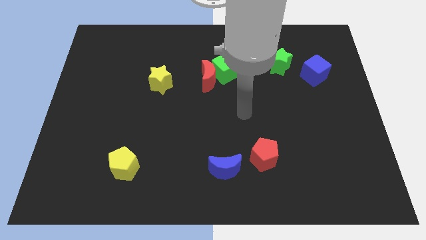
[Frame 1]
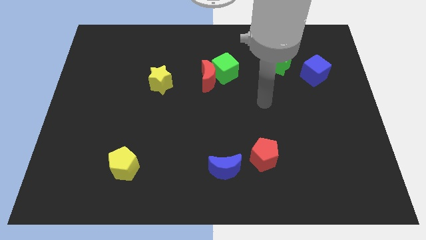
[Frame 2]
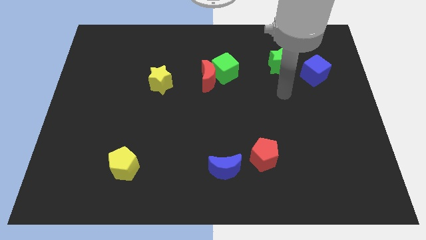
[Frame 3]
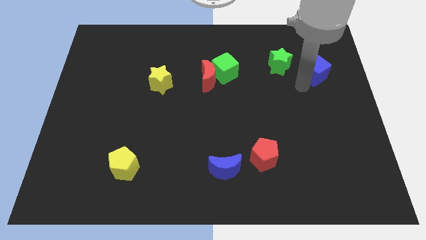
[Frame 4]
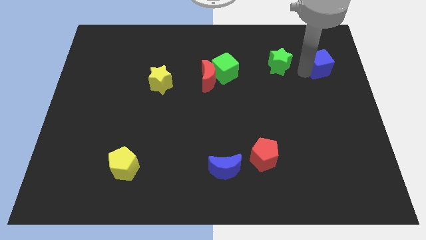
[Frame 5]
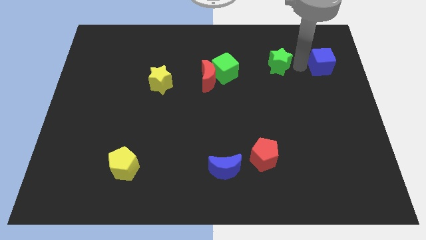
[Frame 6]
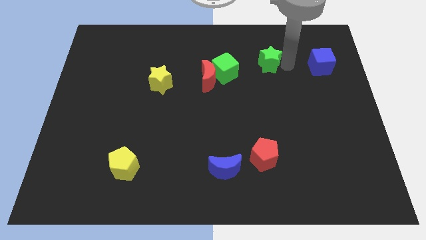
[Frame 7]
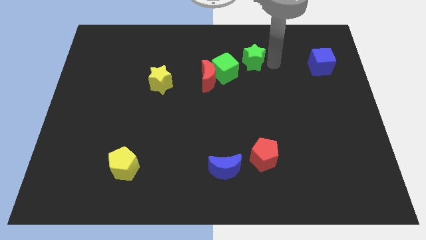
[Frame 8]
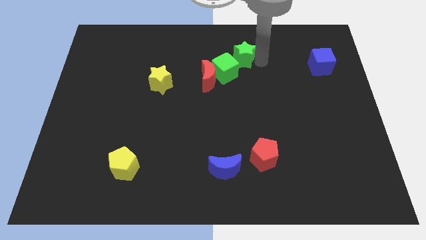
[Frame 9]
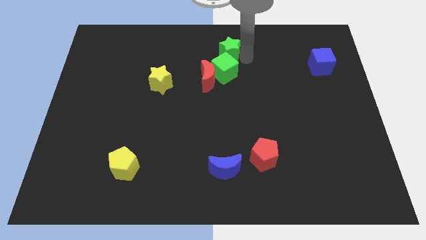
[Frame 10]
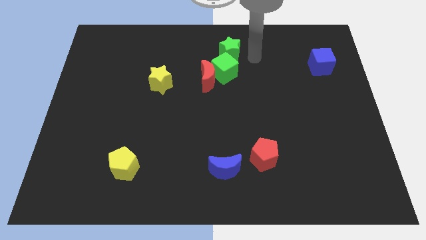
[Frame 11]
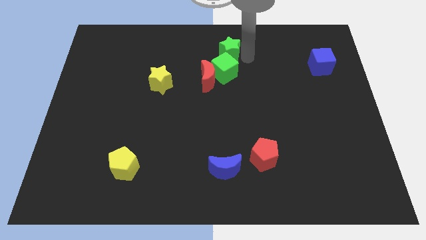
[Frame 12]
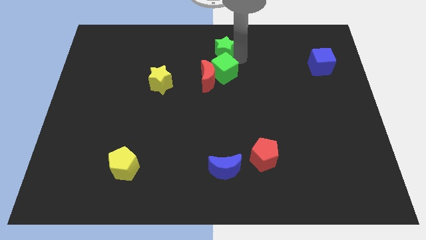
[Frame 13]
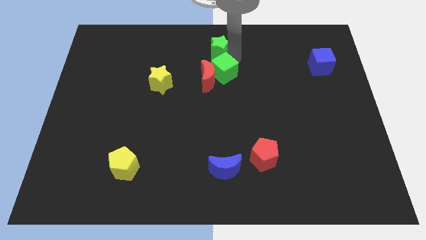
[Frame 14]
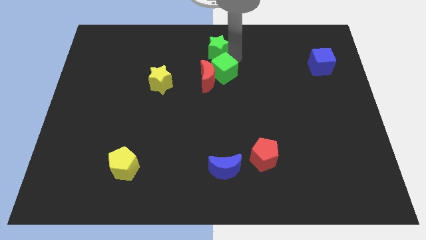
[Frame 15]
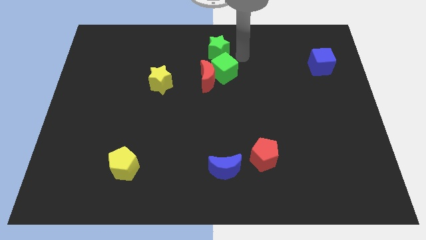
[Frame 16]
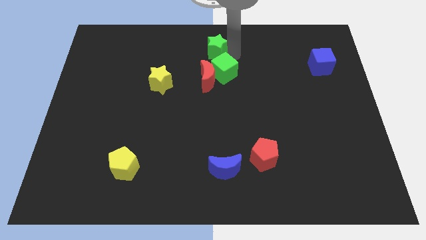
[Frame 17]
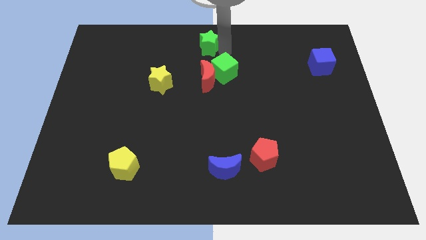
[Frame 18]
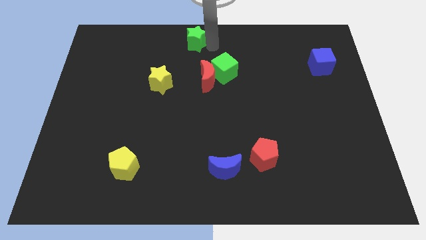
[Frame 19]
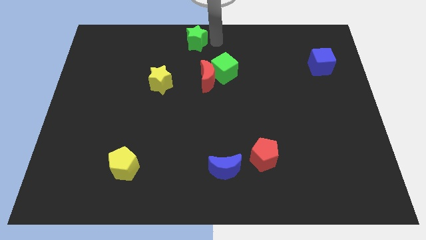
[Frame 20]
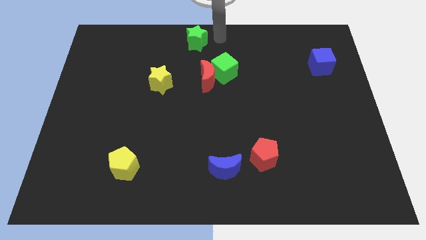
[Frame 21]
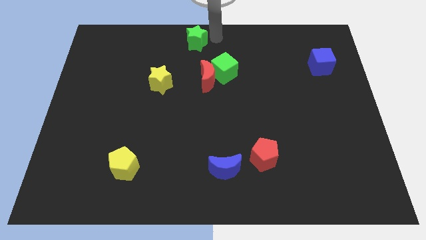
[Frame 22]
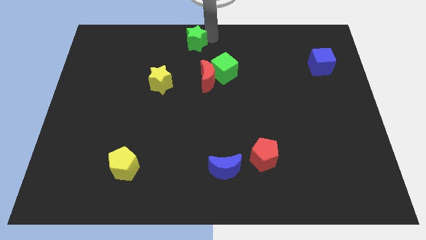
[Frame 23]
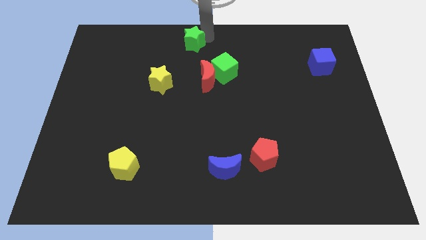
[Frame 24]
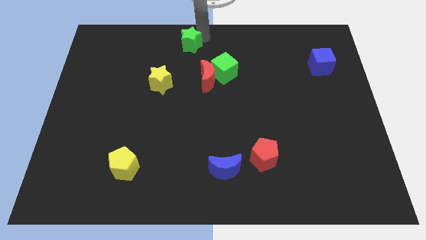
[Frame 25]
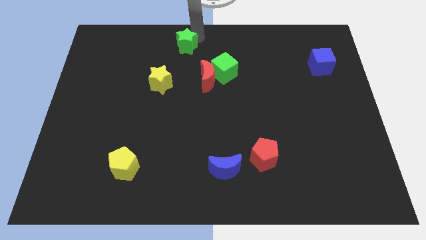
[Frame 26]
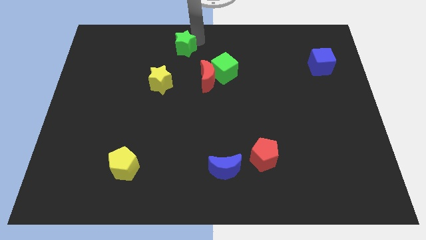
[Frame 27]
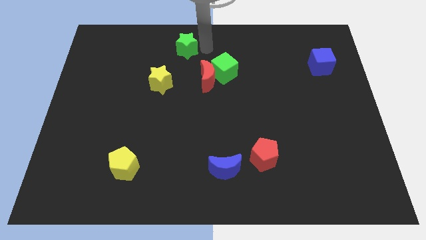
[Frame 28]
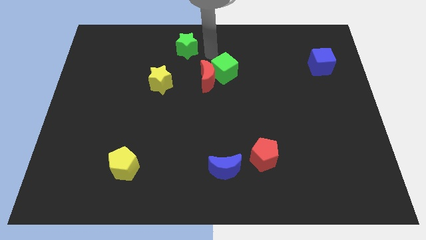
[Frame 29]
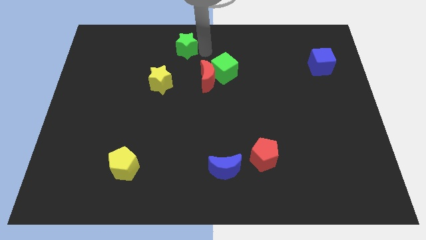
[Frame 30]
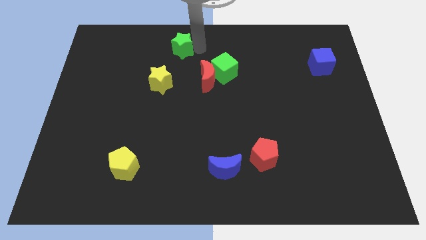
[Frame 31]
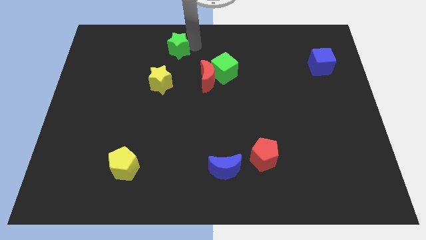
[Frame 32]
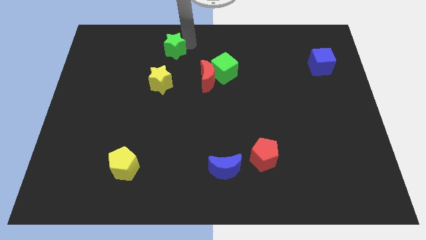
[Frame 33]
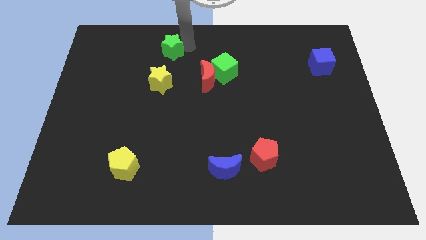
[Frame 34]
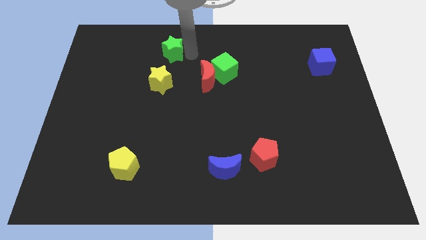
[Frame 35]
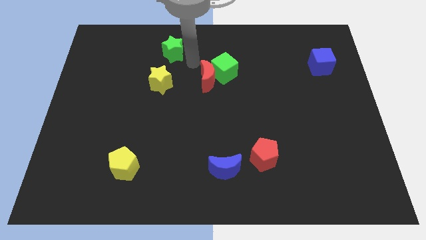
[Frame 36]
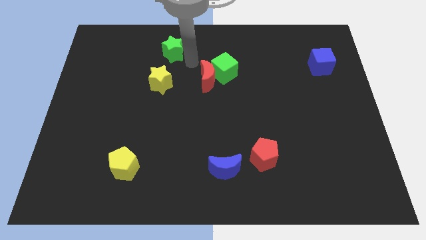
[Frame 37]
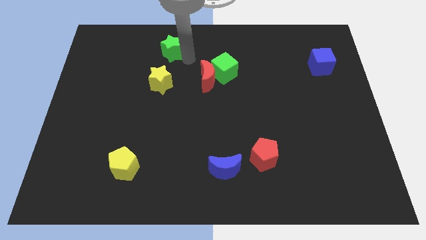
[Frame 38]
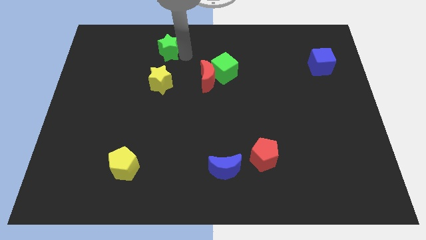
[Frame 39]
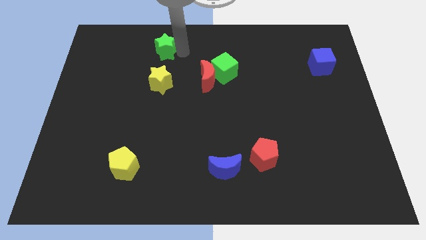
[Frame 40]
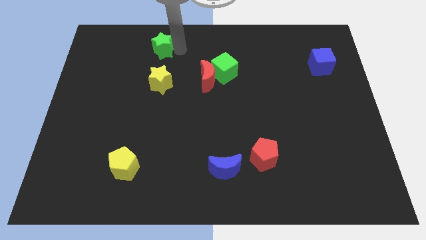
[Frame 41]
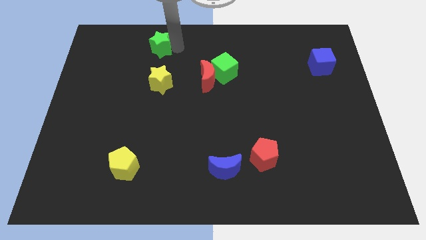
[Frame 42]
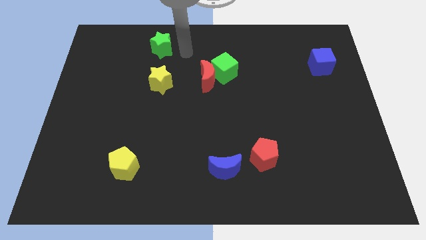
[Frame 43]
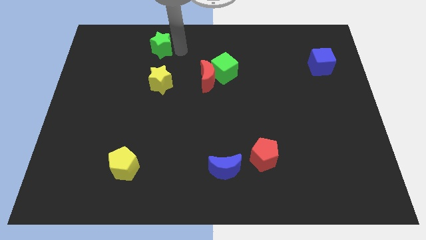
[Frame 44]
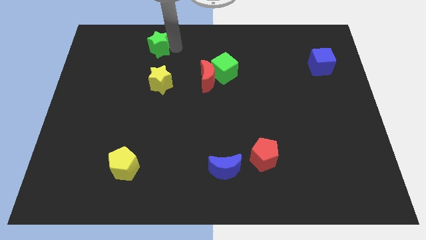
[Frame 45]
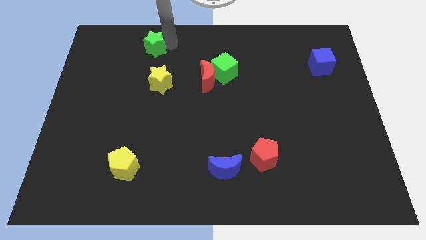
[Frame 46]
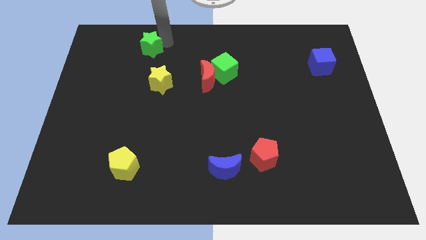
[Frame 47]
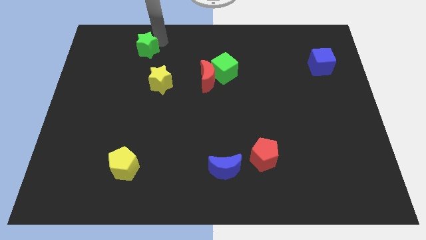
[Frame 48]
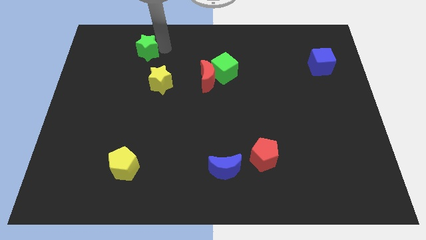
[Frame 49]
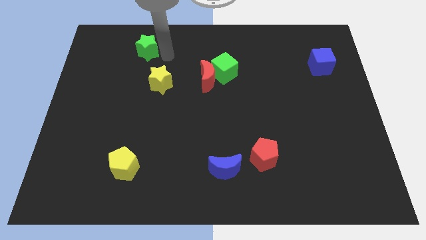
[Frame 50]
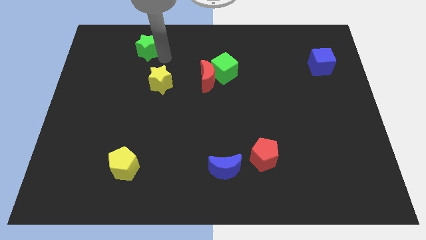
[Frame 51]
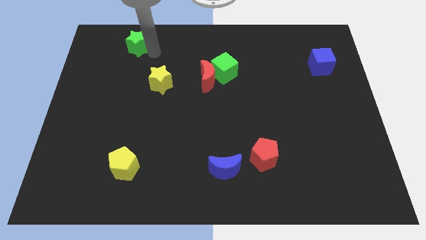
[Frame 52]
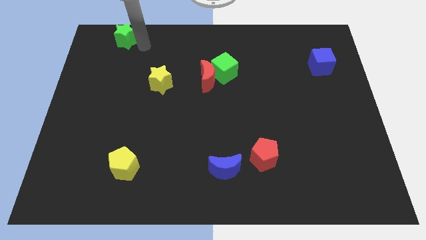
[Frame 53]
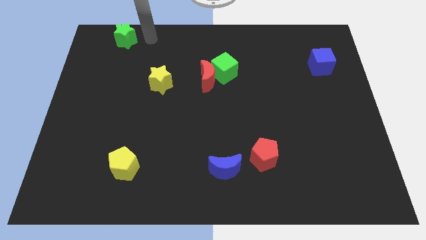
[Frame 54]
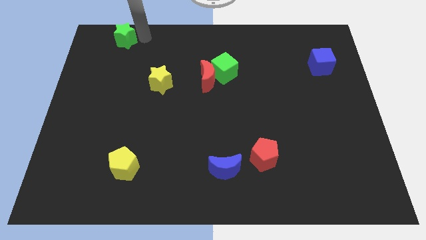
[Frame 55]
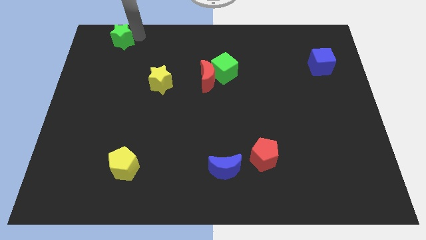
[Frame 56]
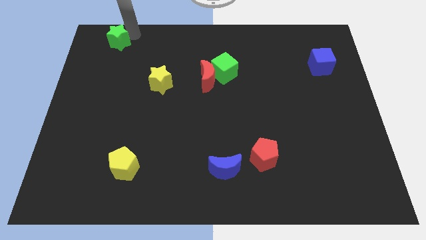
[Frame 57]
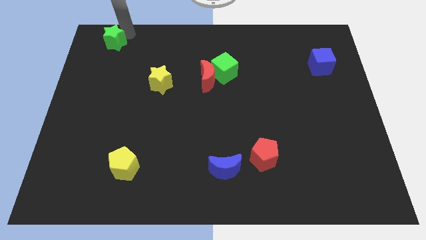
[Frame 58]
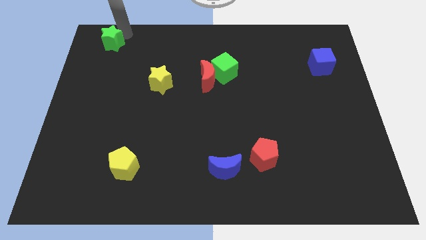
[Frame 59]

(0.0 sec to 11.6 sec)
put the green star to the upper left corner
